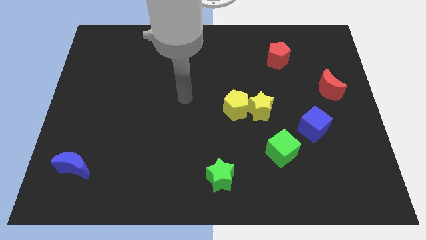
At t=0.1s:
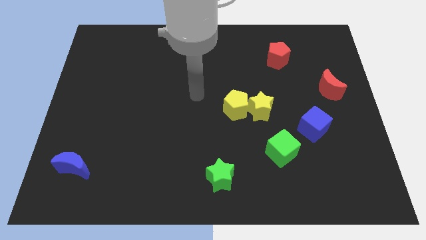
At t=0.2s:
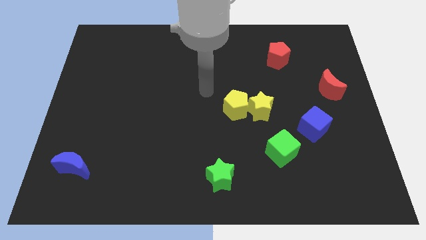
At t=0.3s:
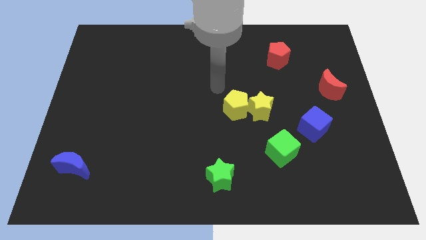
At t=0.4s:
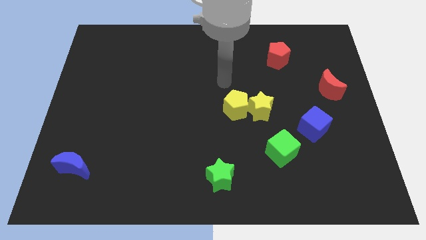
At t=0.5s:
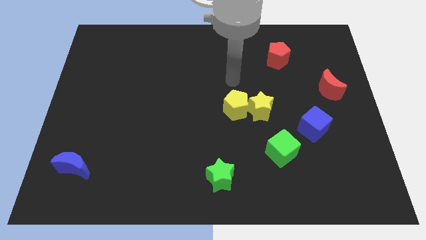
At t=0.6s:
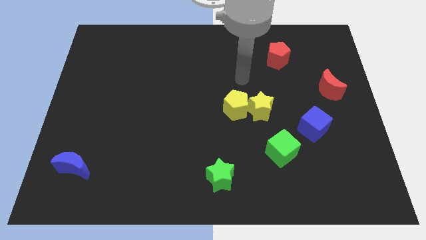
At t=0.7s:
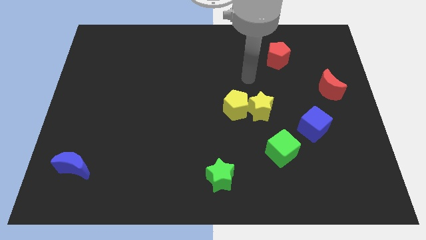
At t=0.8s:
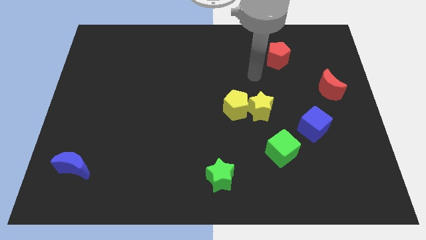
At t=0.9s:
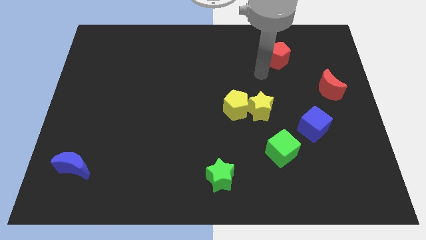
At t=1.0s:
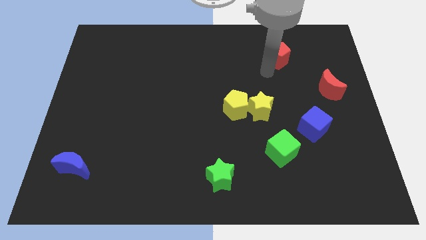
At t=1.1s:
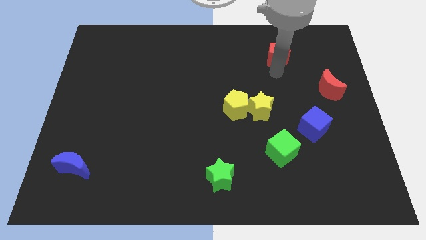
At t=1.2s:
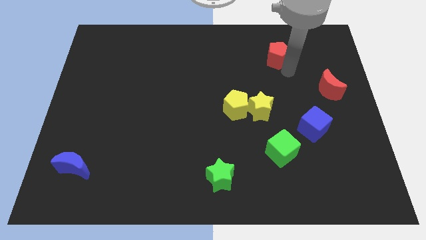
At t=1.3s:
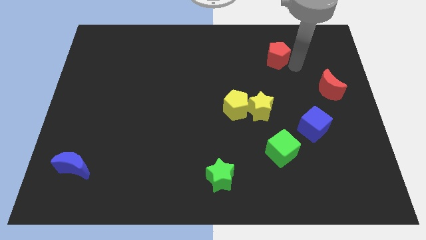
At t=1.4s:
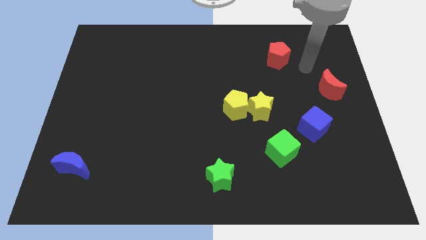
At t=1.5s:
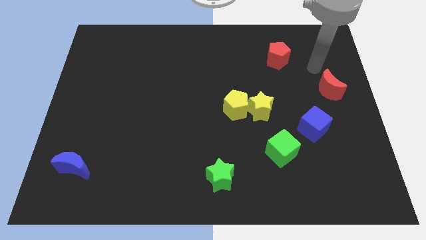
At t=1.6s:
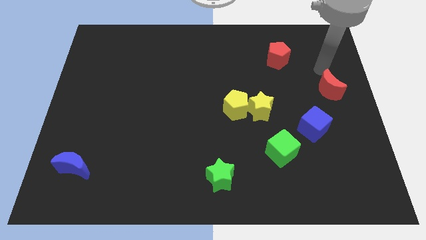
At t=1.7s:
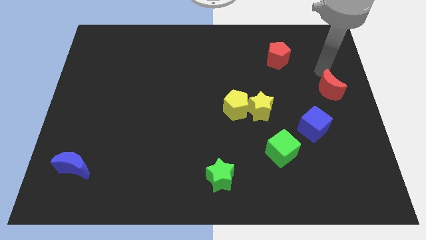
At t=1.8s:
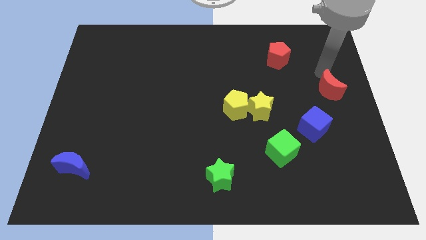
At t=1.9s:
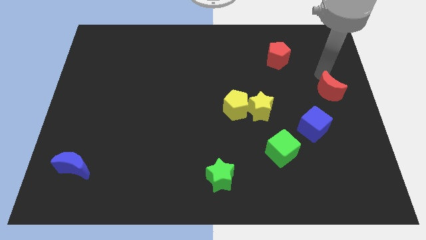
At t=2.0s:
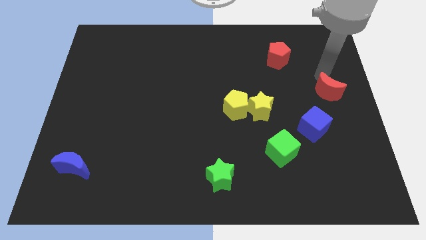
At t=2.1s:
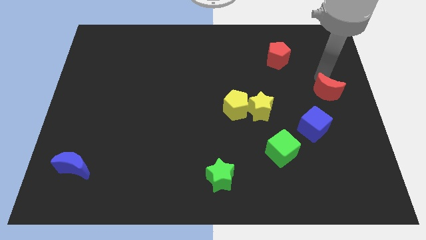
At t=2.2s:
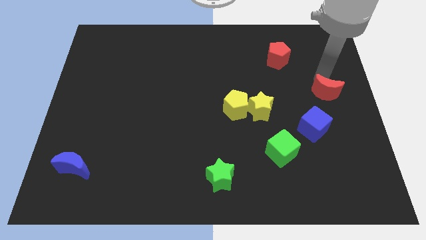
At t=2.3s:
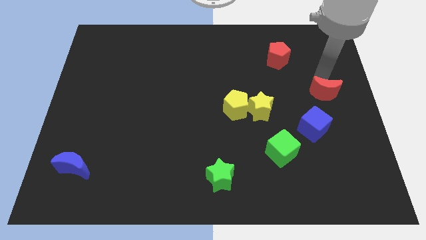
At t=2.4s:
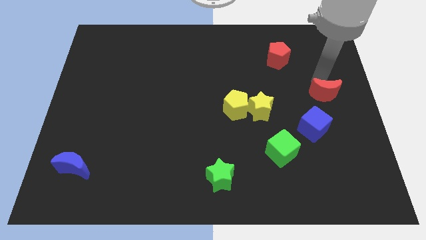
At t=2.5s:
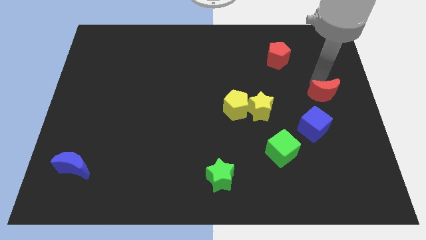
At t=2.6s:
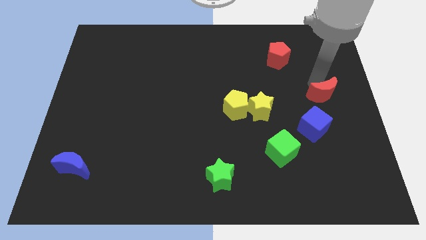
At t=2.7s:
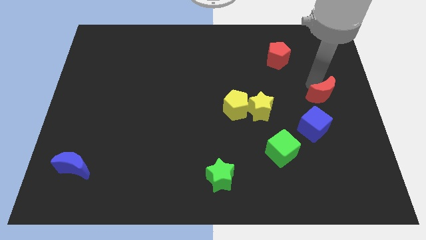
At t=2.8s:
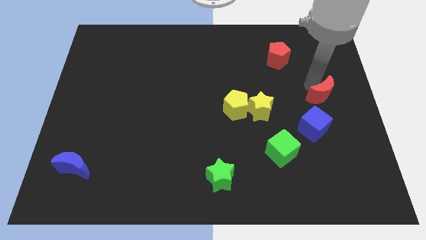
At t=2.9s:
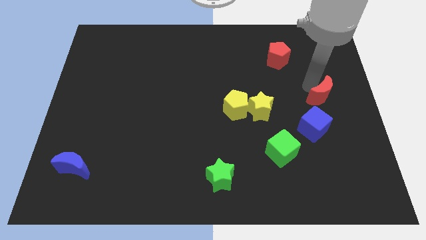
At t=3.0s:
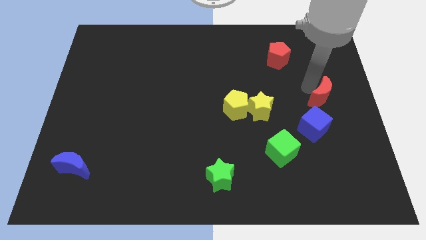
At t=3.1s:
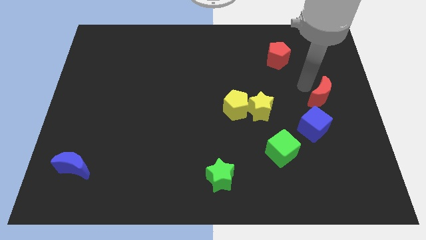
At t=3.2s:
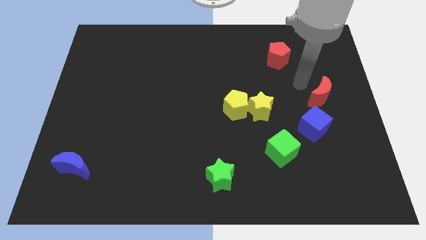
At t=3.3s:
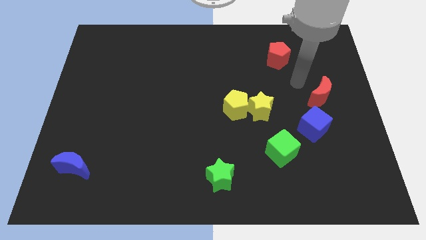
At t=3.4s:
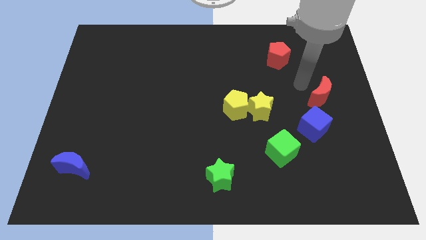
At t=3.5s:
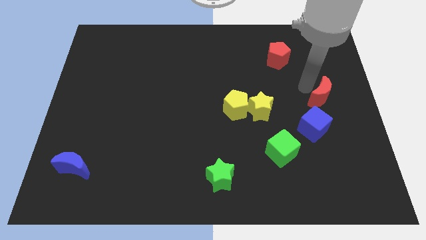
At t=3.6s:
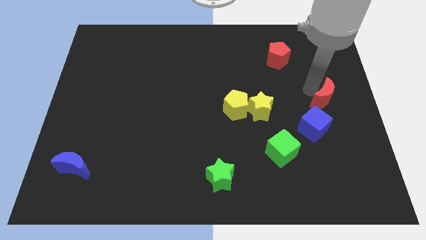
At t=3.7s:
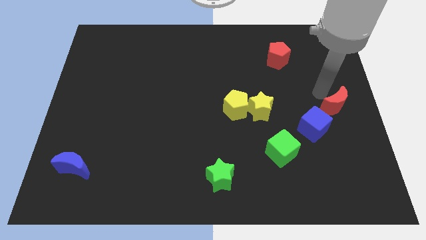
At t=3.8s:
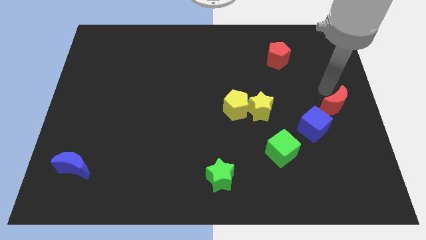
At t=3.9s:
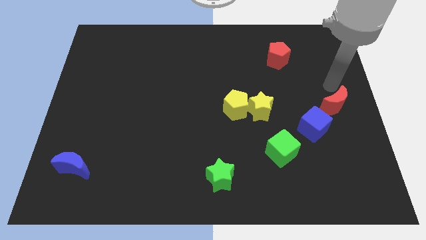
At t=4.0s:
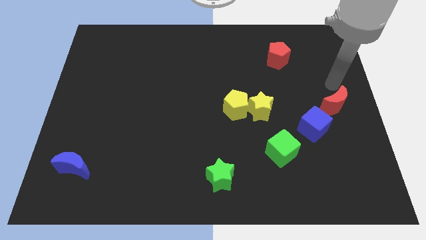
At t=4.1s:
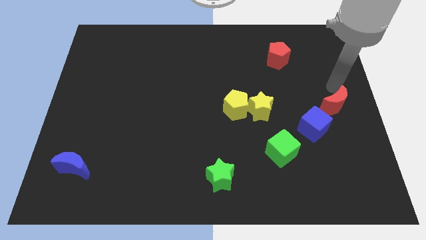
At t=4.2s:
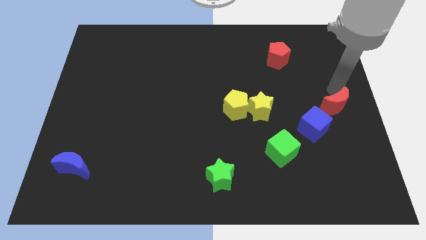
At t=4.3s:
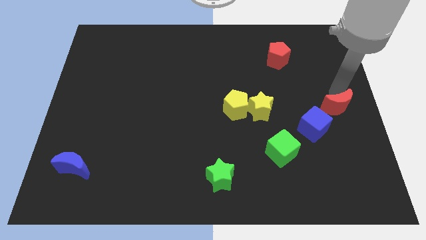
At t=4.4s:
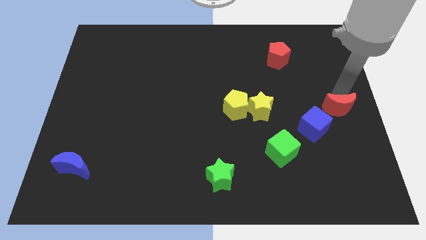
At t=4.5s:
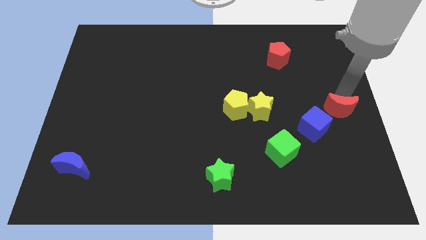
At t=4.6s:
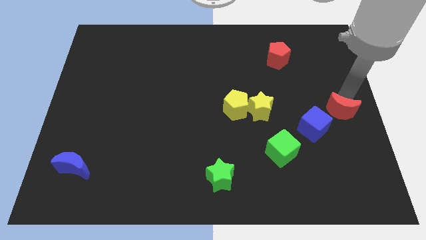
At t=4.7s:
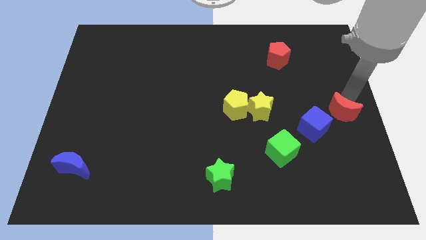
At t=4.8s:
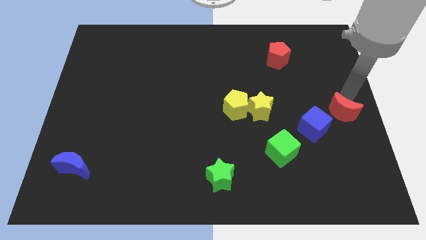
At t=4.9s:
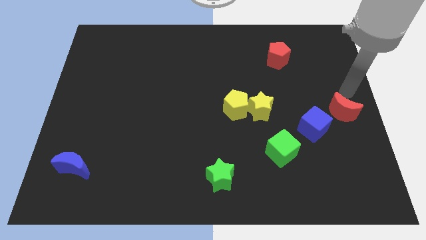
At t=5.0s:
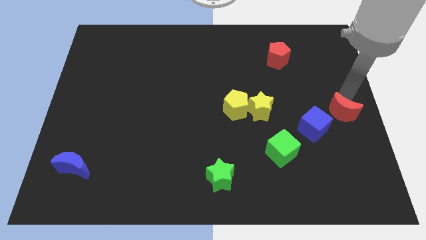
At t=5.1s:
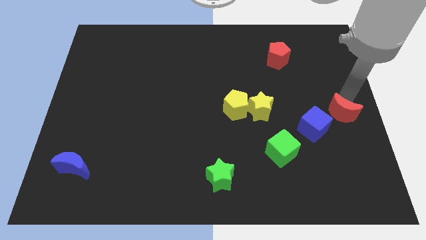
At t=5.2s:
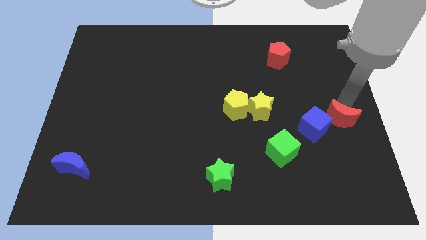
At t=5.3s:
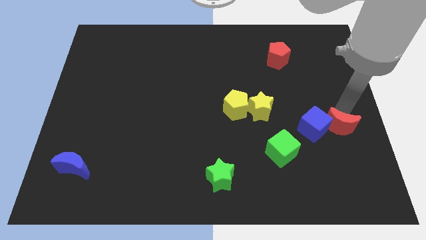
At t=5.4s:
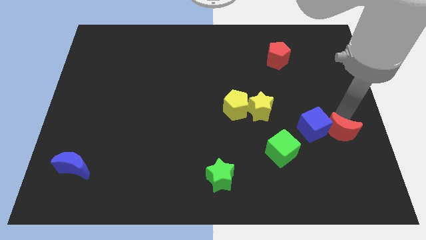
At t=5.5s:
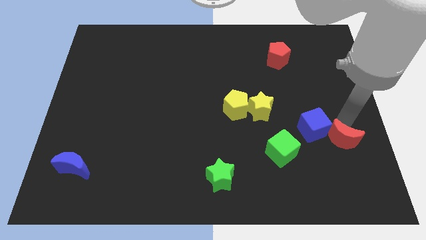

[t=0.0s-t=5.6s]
move the red moon to the right of the green cube

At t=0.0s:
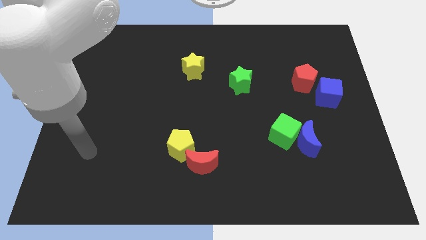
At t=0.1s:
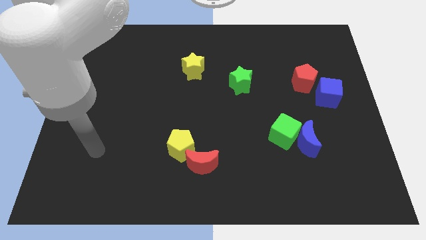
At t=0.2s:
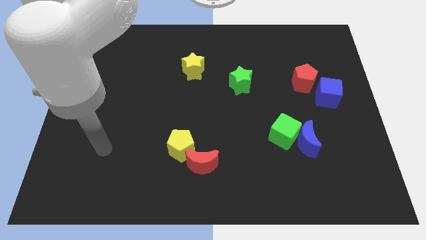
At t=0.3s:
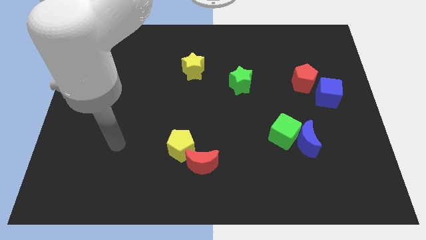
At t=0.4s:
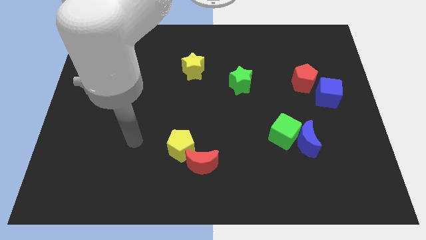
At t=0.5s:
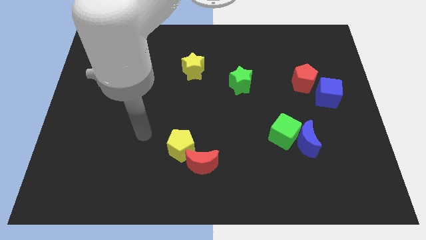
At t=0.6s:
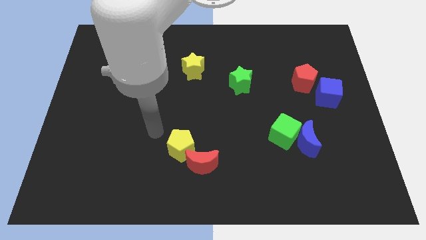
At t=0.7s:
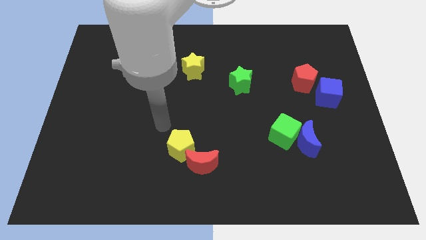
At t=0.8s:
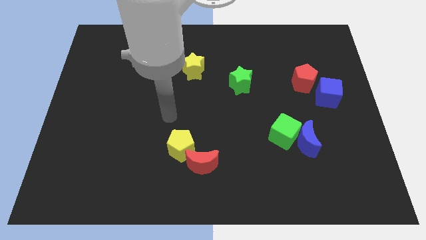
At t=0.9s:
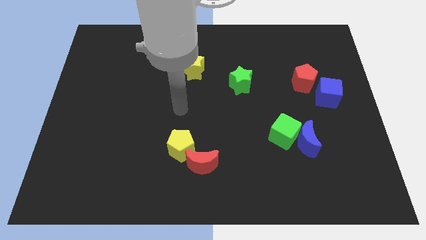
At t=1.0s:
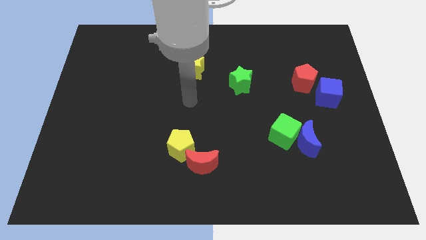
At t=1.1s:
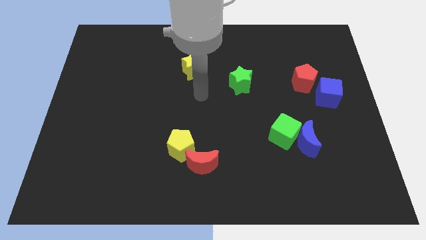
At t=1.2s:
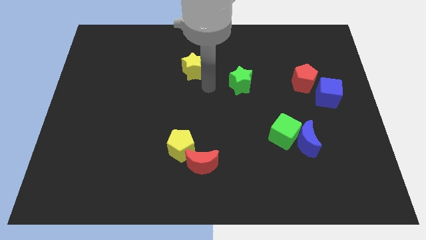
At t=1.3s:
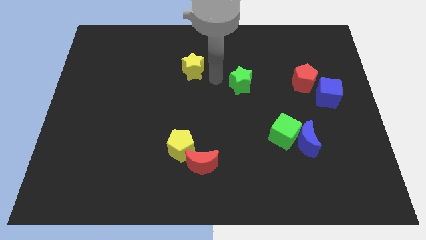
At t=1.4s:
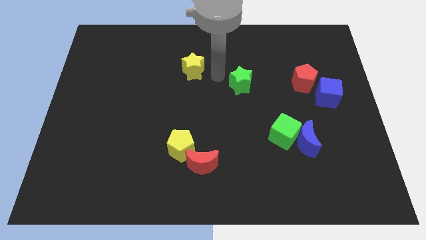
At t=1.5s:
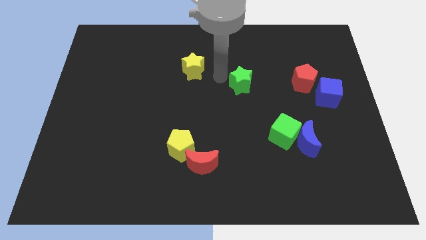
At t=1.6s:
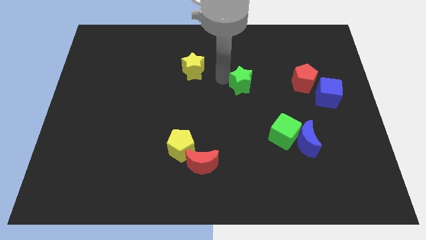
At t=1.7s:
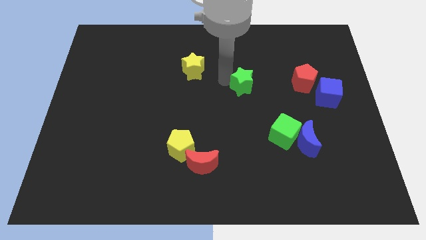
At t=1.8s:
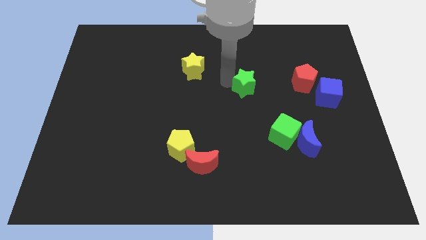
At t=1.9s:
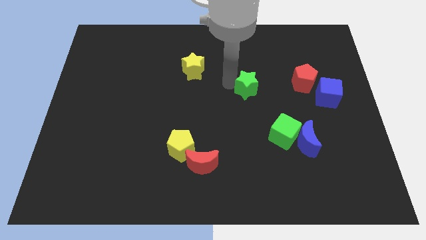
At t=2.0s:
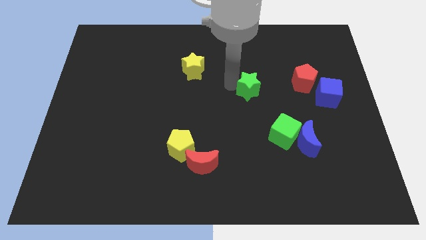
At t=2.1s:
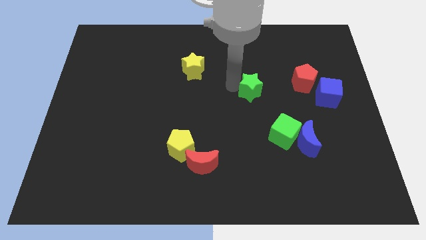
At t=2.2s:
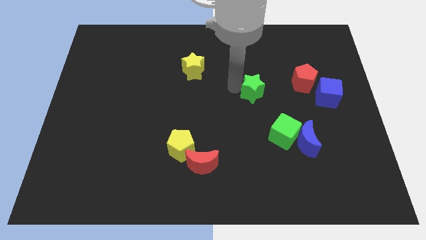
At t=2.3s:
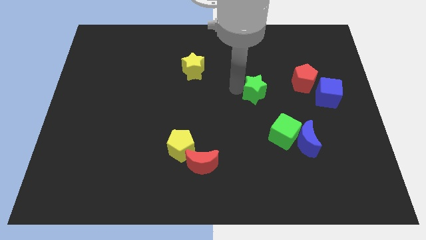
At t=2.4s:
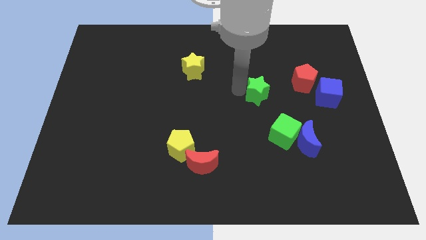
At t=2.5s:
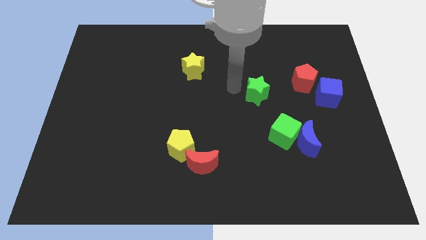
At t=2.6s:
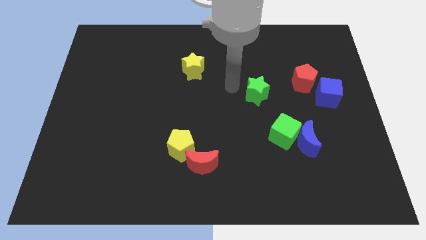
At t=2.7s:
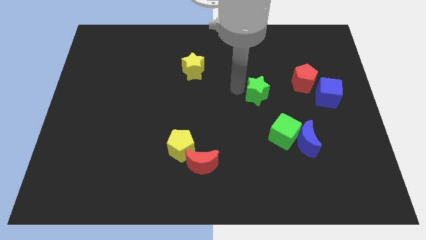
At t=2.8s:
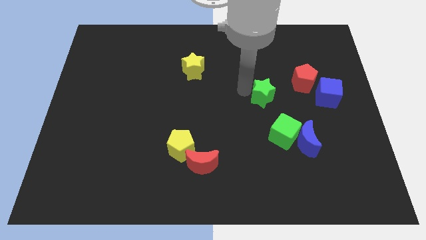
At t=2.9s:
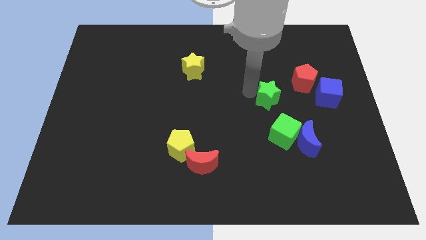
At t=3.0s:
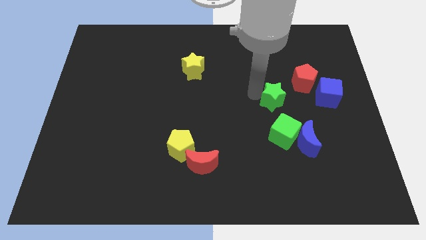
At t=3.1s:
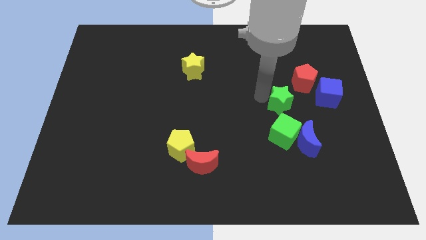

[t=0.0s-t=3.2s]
slide the green star to the top of the blue moon
